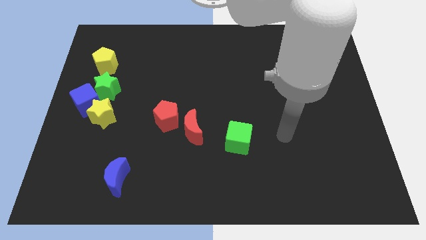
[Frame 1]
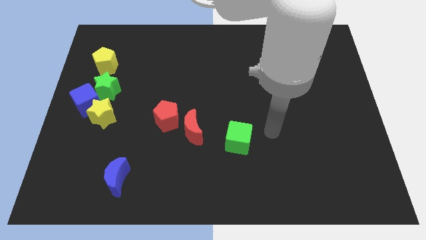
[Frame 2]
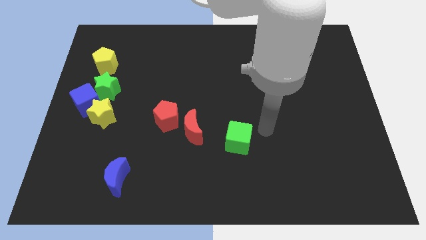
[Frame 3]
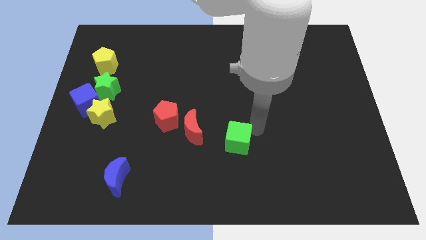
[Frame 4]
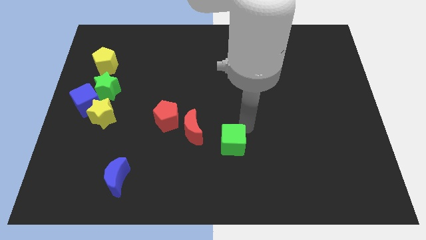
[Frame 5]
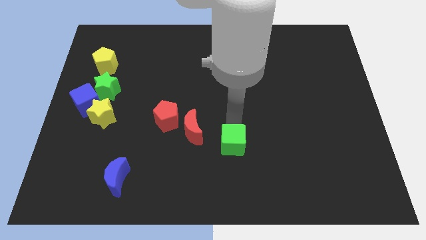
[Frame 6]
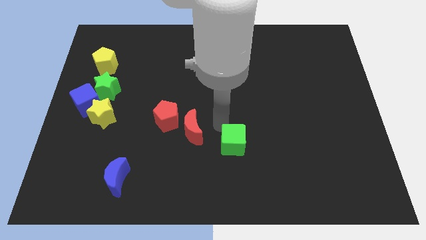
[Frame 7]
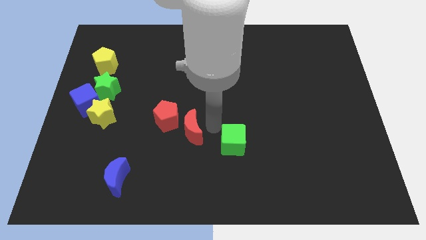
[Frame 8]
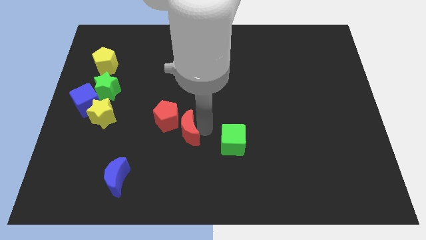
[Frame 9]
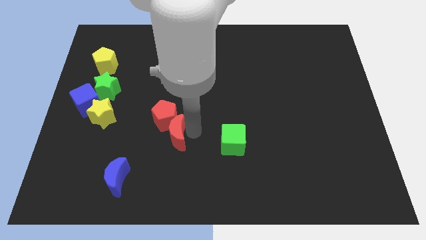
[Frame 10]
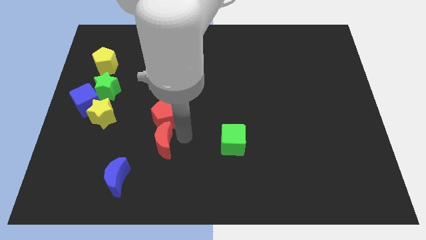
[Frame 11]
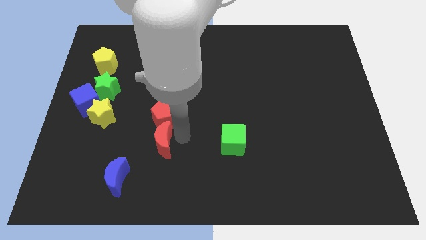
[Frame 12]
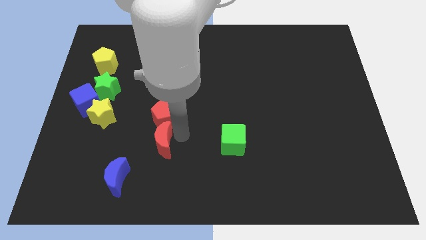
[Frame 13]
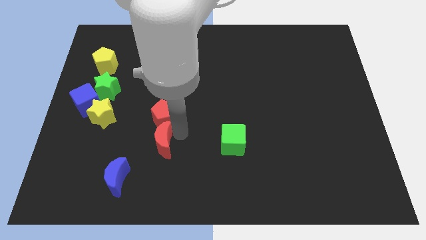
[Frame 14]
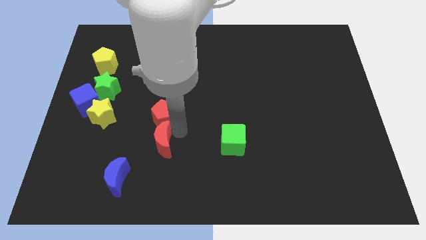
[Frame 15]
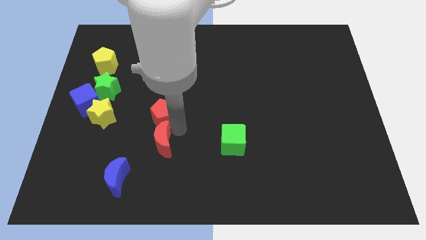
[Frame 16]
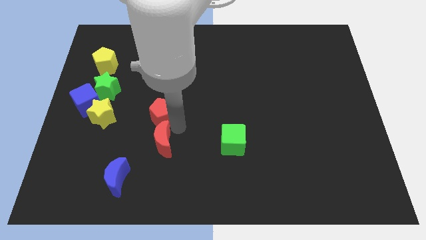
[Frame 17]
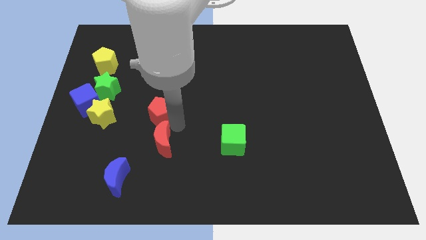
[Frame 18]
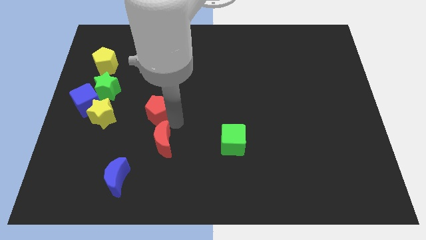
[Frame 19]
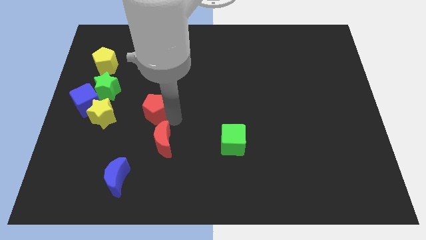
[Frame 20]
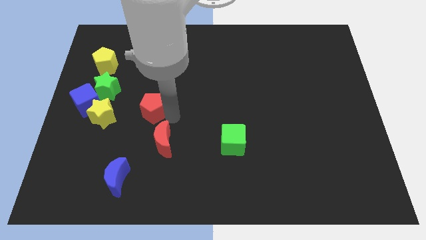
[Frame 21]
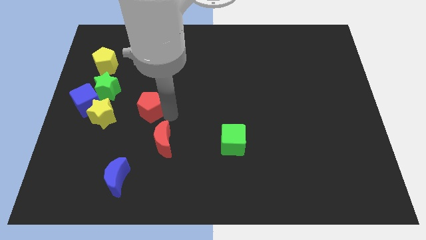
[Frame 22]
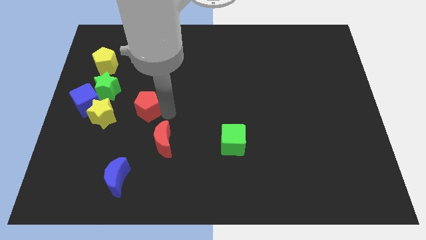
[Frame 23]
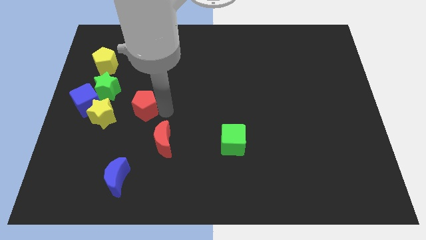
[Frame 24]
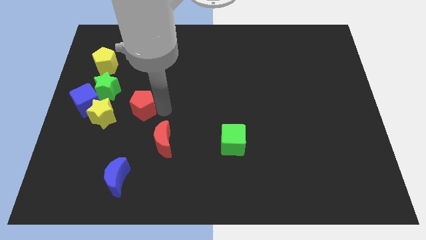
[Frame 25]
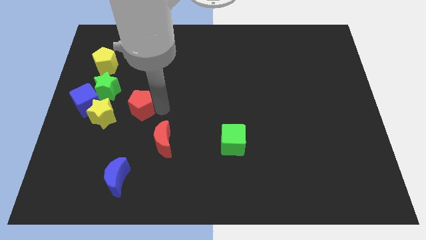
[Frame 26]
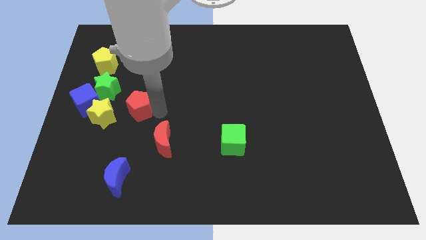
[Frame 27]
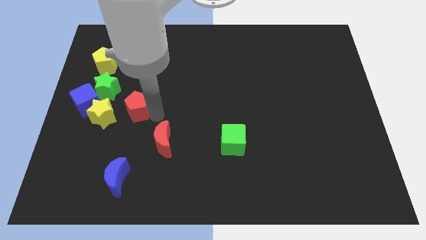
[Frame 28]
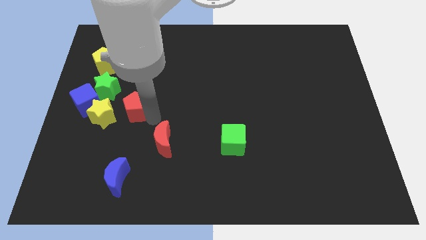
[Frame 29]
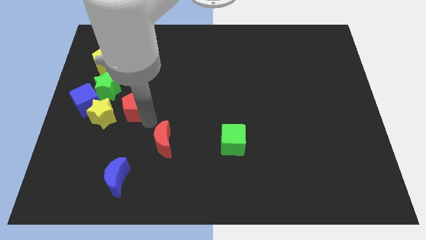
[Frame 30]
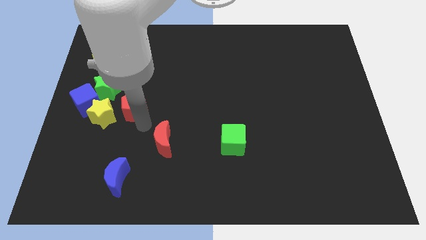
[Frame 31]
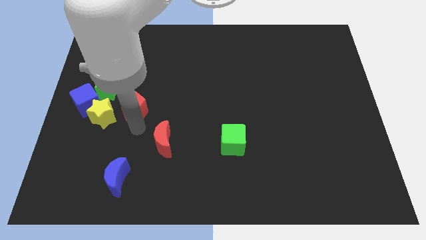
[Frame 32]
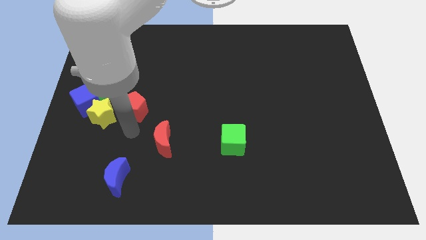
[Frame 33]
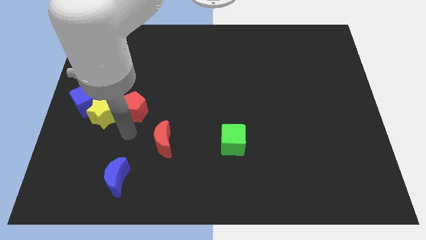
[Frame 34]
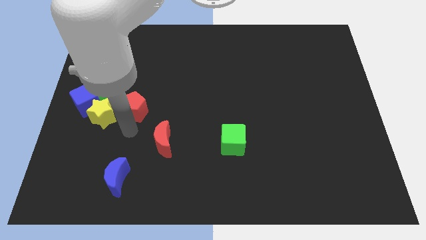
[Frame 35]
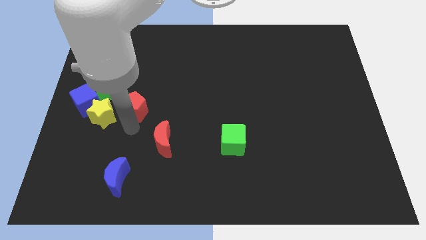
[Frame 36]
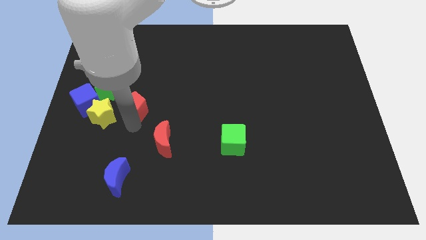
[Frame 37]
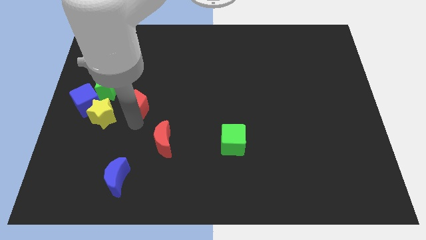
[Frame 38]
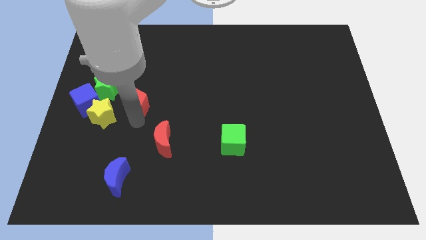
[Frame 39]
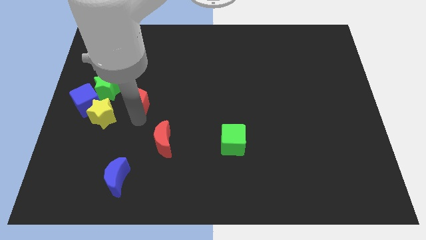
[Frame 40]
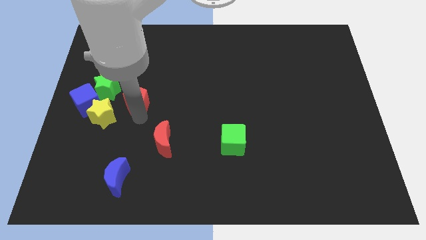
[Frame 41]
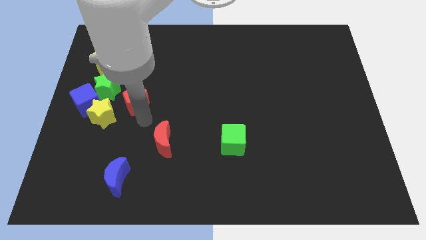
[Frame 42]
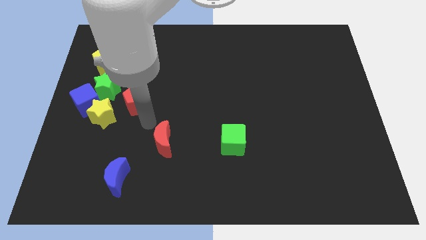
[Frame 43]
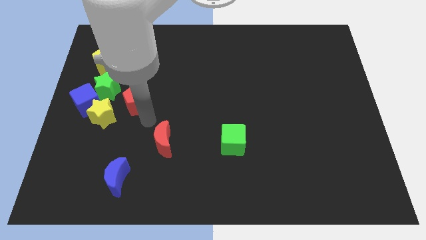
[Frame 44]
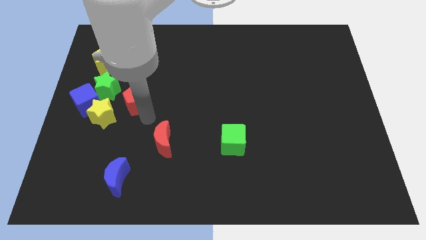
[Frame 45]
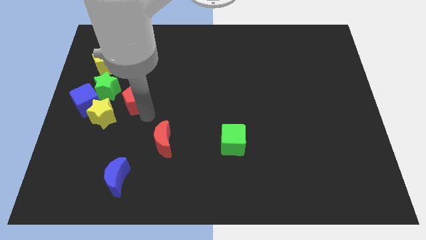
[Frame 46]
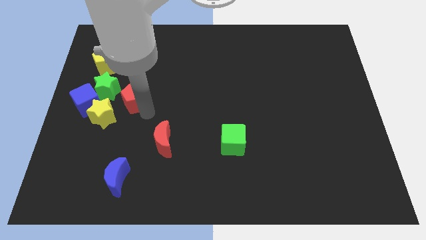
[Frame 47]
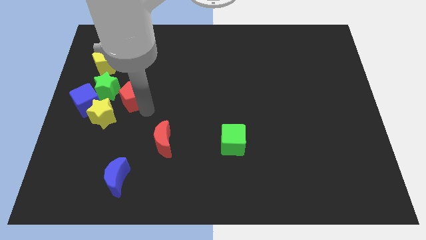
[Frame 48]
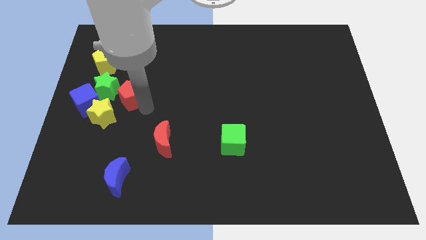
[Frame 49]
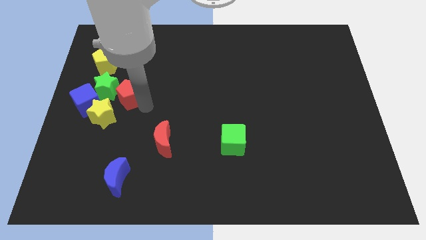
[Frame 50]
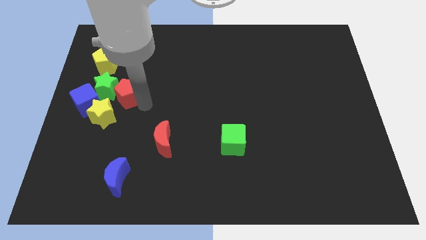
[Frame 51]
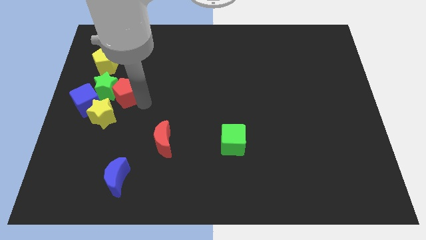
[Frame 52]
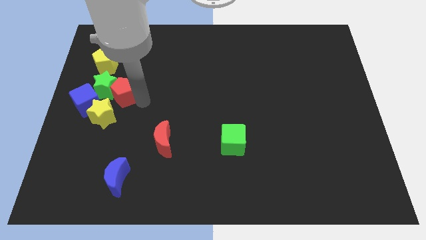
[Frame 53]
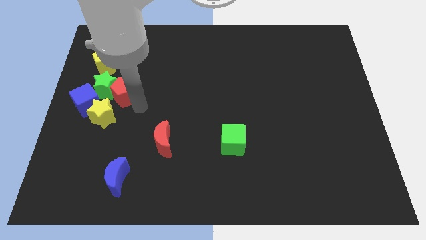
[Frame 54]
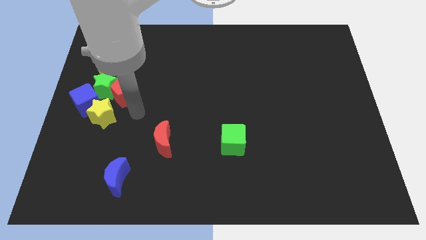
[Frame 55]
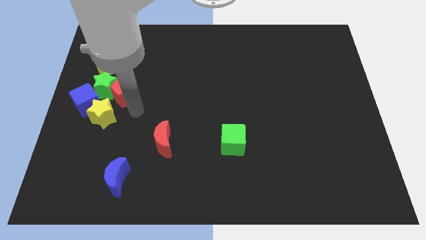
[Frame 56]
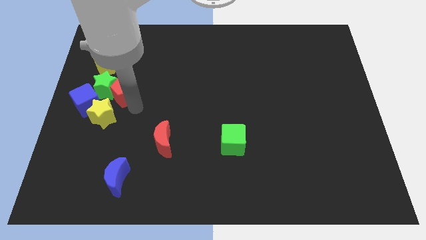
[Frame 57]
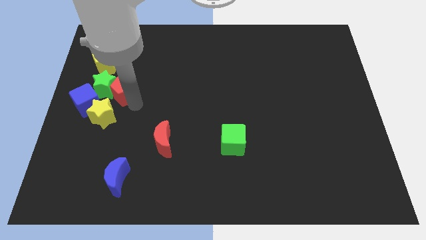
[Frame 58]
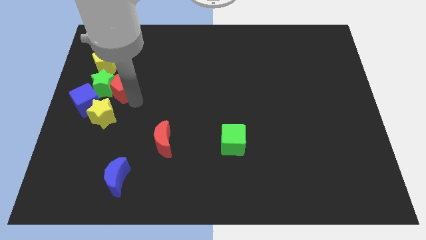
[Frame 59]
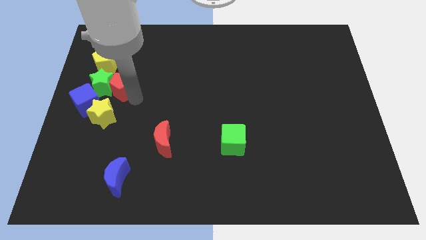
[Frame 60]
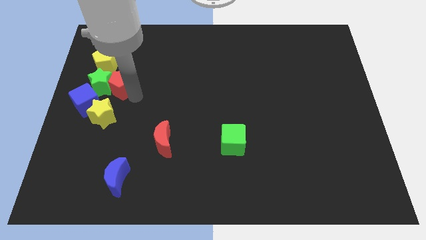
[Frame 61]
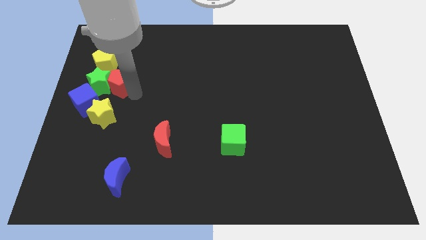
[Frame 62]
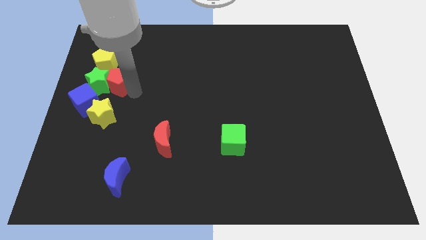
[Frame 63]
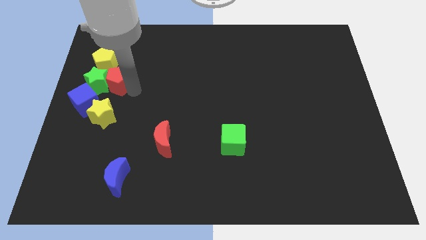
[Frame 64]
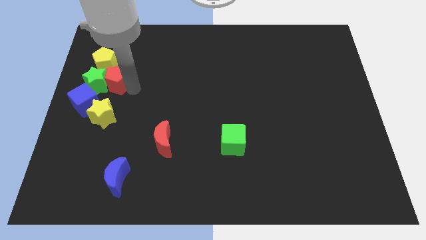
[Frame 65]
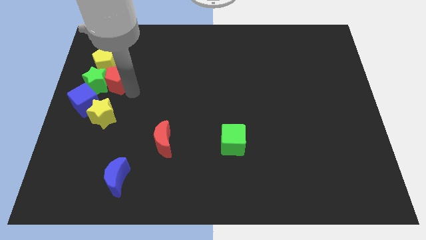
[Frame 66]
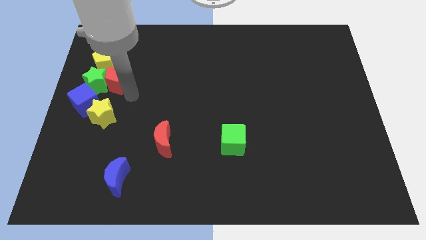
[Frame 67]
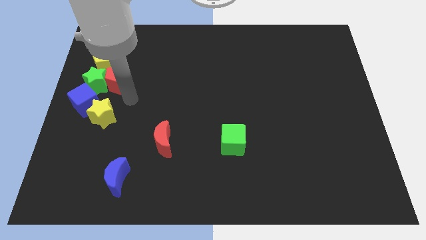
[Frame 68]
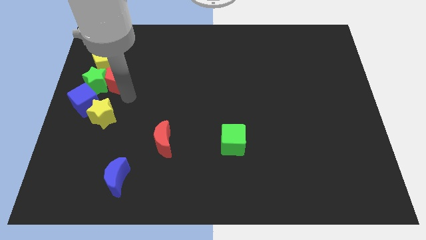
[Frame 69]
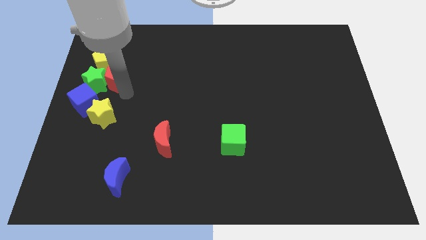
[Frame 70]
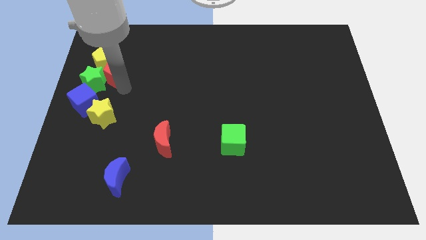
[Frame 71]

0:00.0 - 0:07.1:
put the red pentagon to the yellow pentagon
